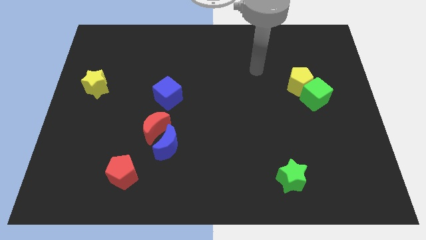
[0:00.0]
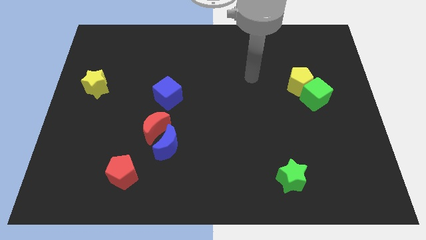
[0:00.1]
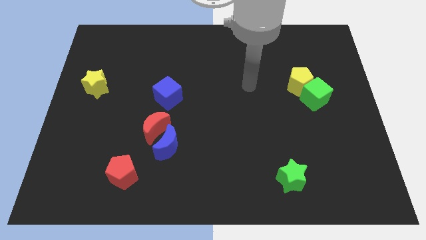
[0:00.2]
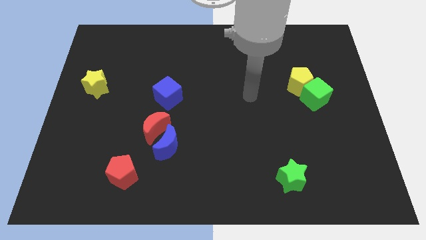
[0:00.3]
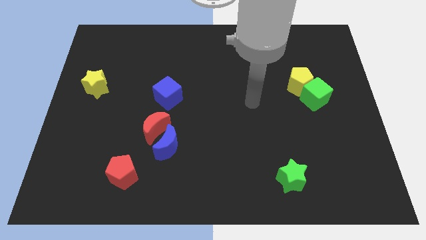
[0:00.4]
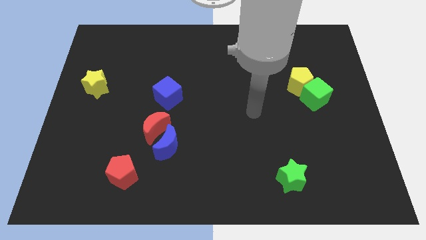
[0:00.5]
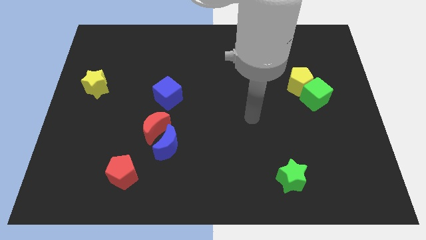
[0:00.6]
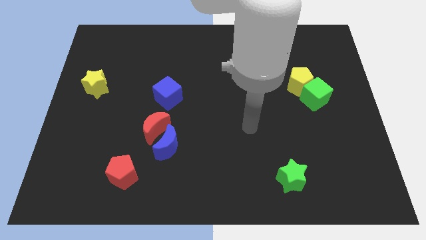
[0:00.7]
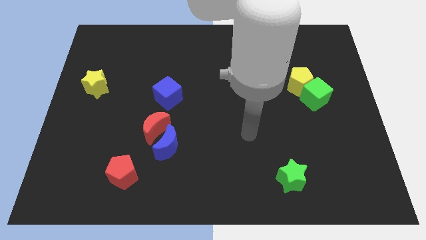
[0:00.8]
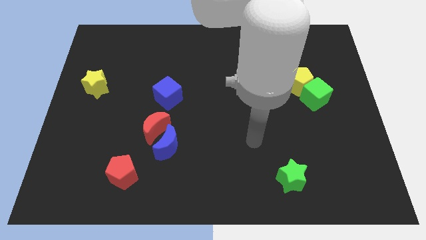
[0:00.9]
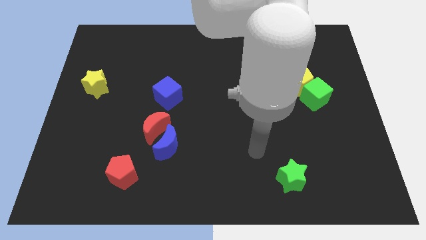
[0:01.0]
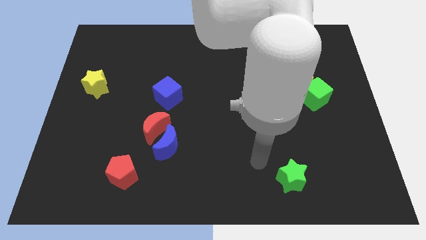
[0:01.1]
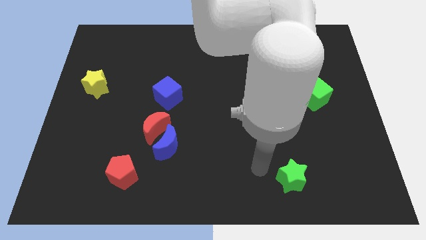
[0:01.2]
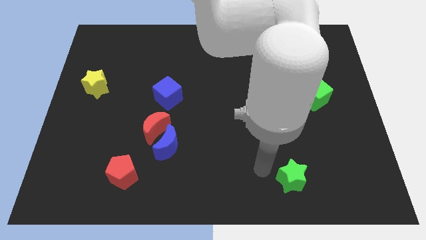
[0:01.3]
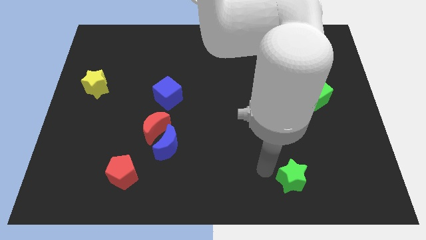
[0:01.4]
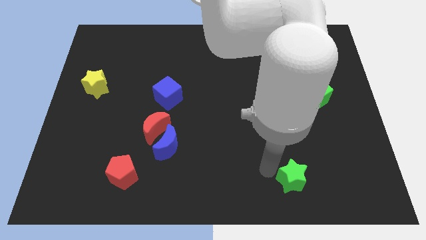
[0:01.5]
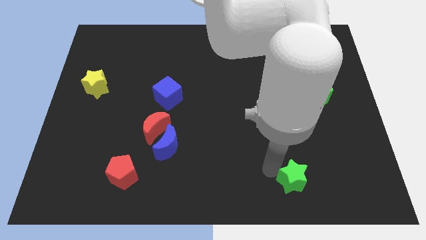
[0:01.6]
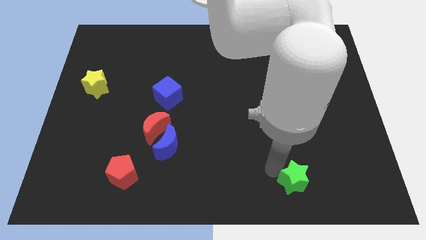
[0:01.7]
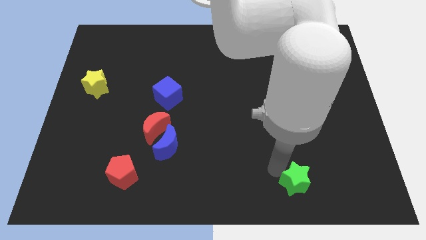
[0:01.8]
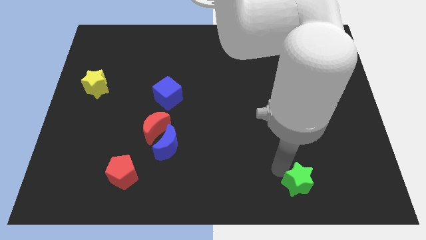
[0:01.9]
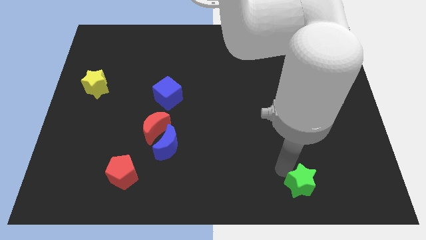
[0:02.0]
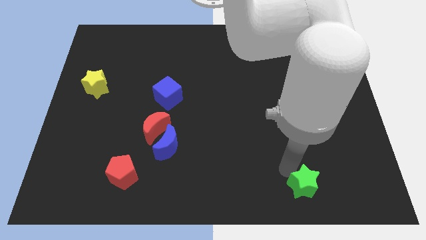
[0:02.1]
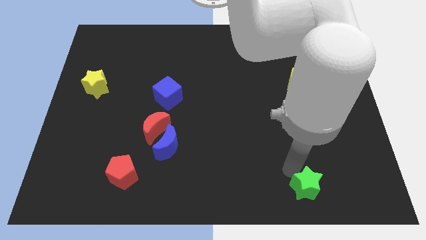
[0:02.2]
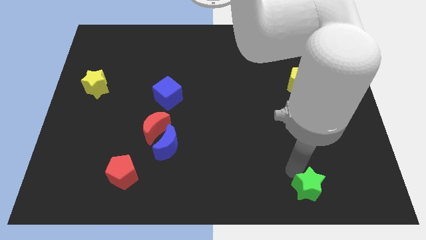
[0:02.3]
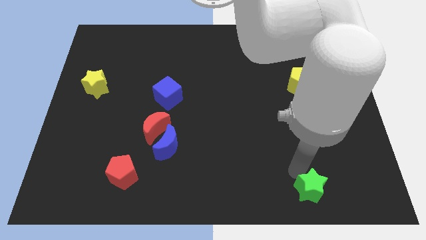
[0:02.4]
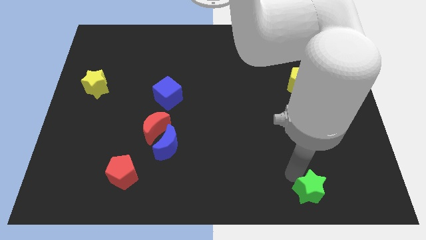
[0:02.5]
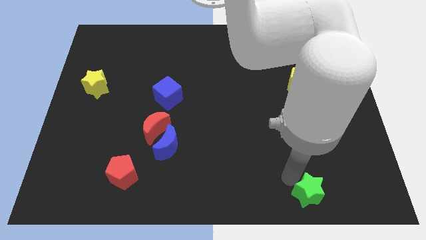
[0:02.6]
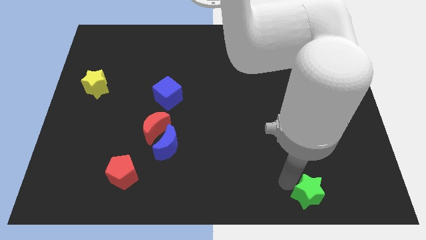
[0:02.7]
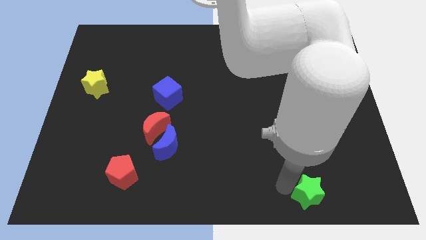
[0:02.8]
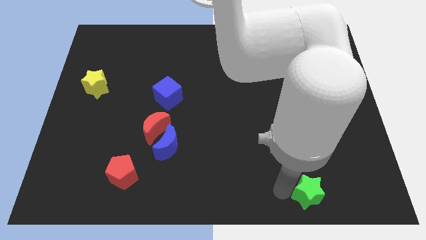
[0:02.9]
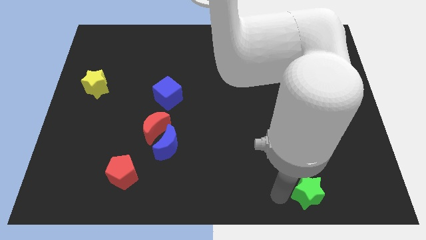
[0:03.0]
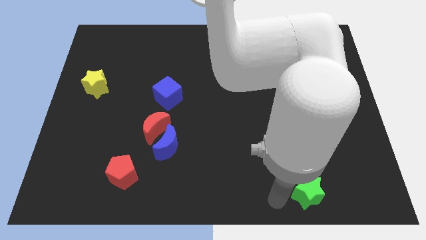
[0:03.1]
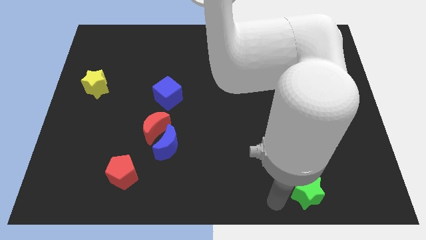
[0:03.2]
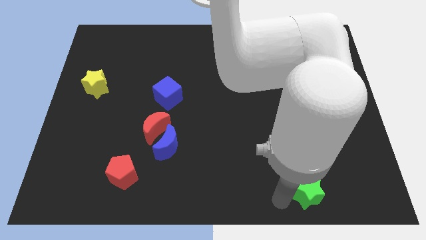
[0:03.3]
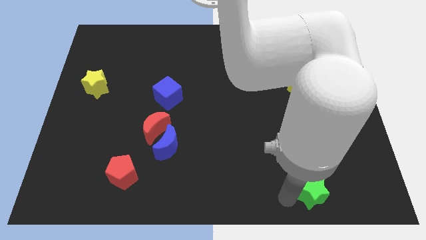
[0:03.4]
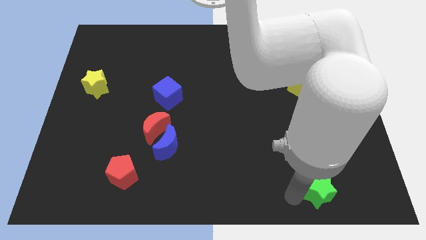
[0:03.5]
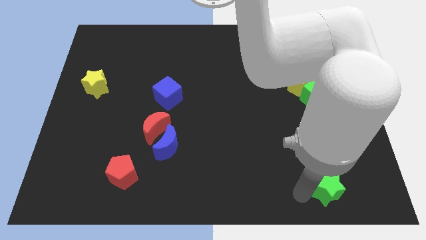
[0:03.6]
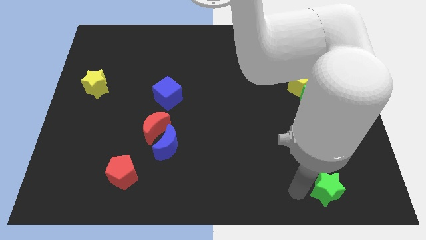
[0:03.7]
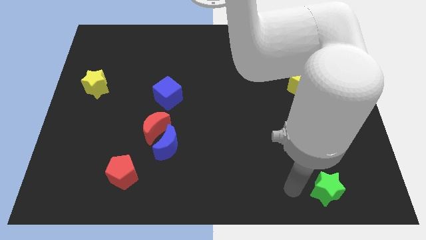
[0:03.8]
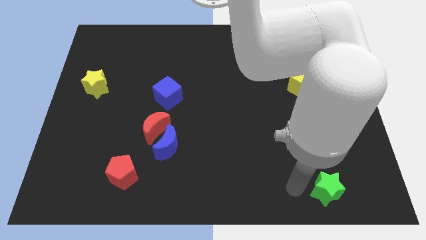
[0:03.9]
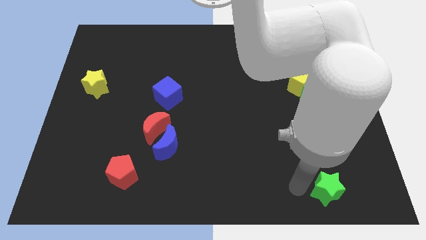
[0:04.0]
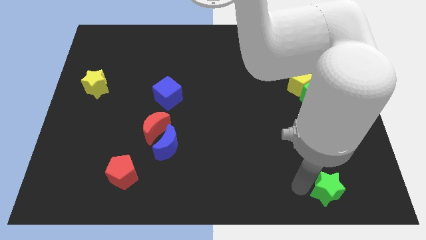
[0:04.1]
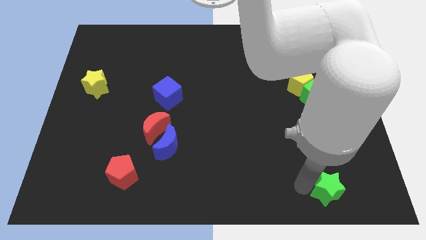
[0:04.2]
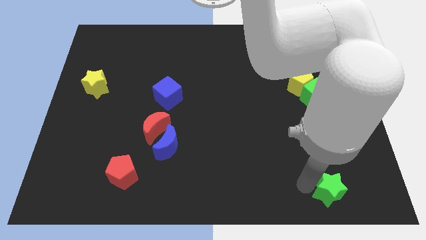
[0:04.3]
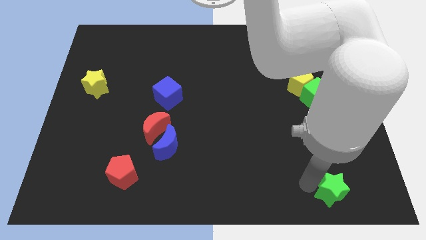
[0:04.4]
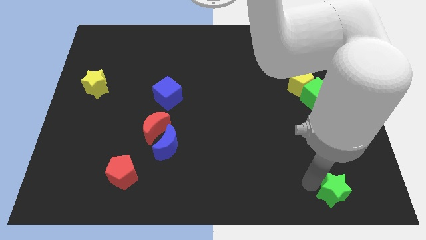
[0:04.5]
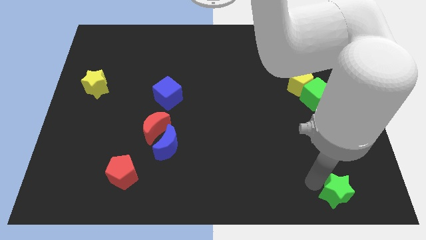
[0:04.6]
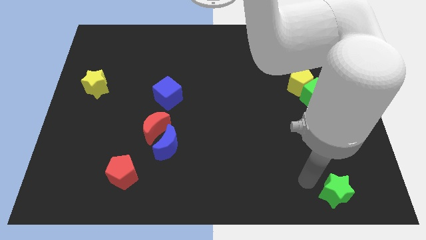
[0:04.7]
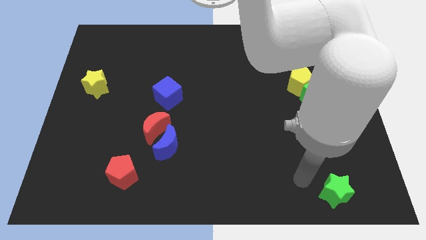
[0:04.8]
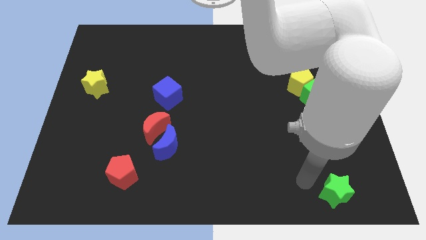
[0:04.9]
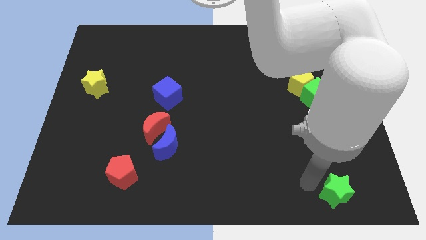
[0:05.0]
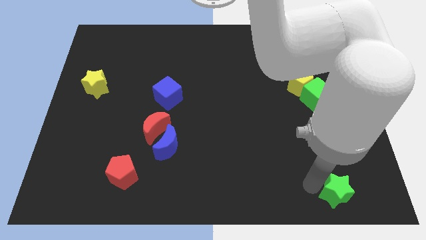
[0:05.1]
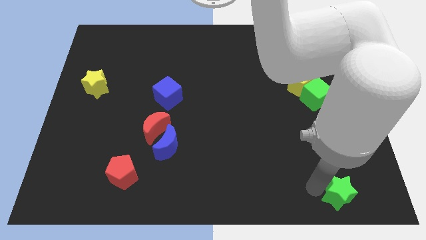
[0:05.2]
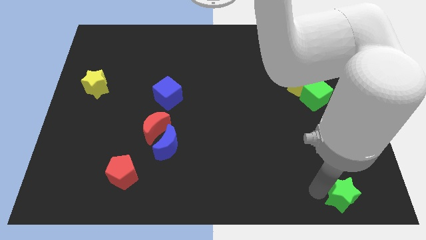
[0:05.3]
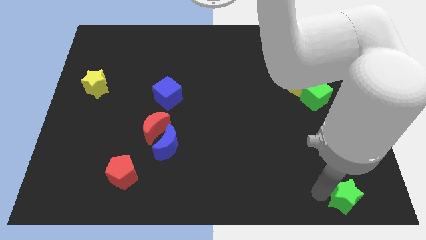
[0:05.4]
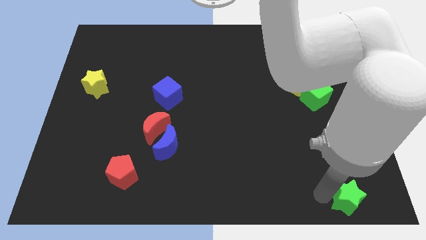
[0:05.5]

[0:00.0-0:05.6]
move the green star to the bottom right

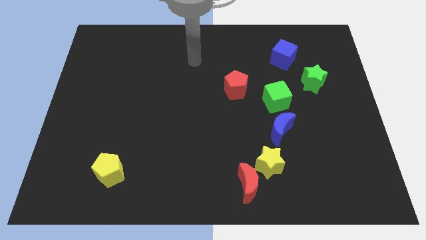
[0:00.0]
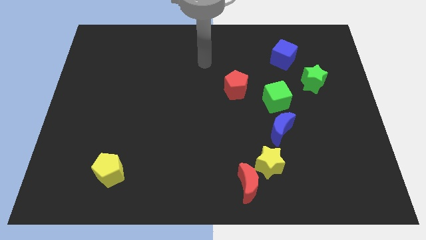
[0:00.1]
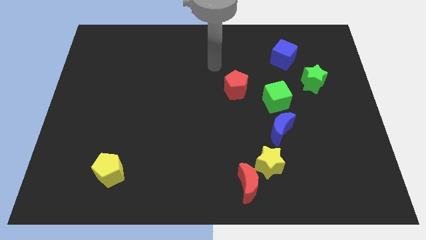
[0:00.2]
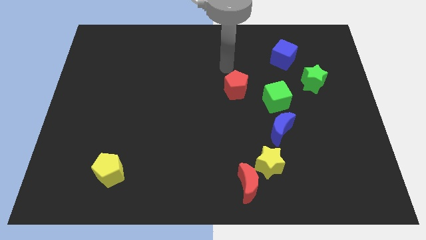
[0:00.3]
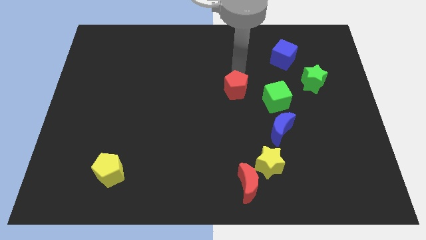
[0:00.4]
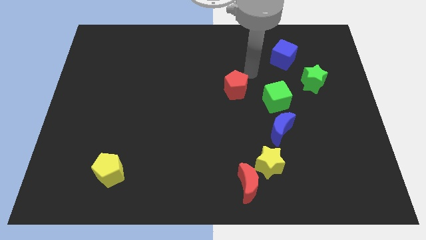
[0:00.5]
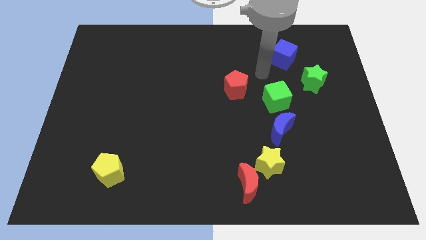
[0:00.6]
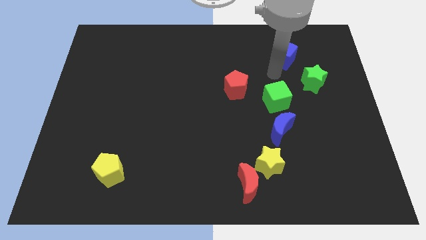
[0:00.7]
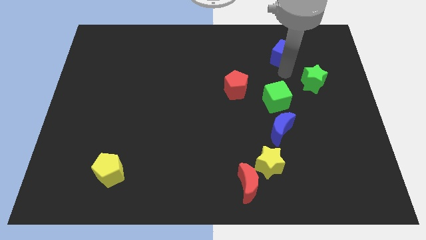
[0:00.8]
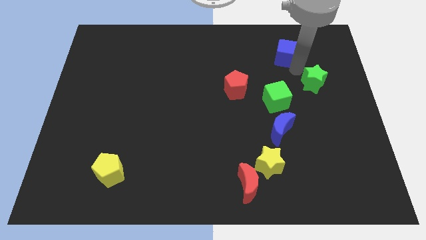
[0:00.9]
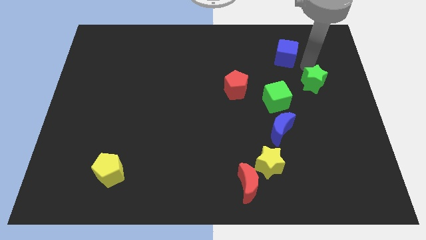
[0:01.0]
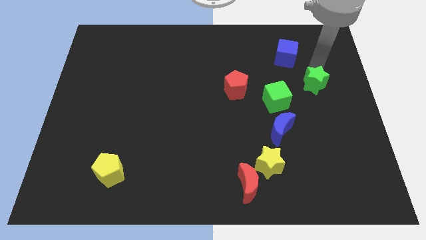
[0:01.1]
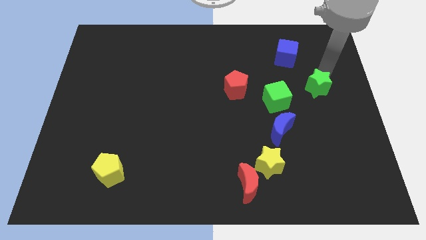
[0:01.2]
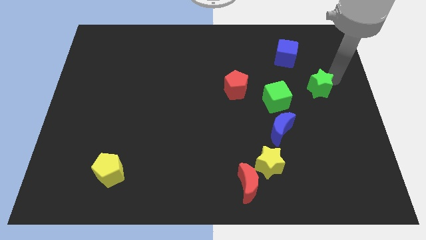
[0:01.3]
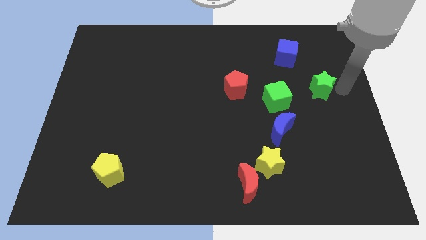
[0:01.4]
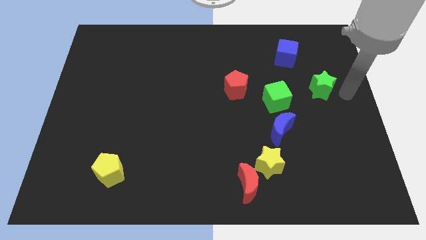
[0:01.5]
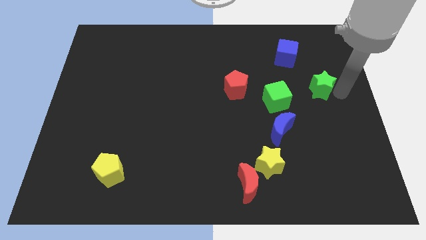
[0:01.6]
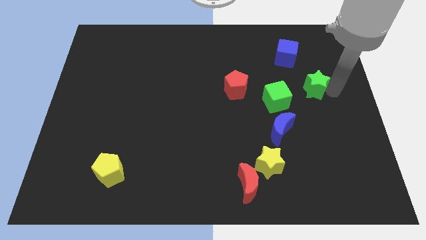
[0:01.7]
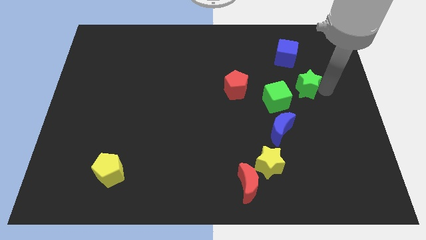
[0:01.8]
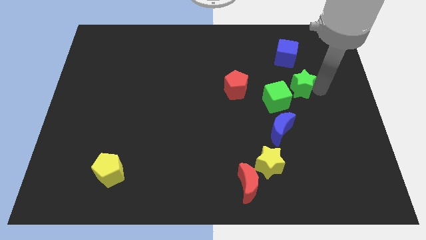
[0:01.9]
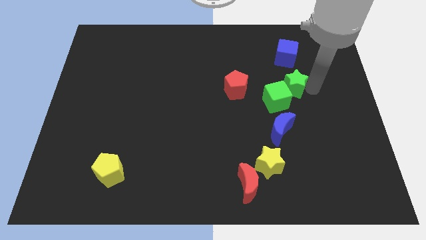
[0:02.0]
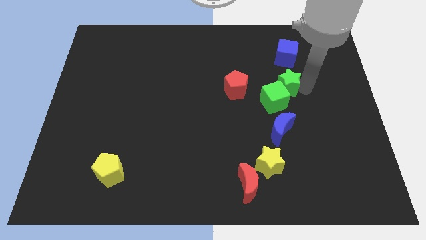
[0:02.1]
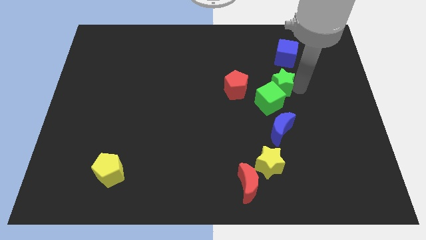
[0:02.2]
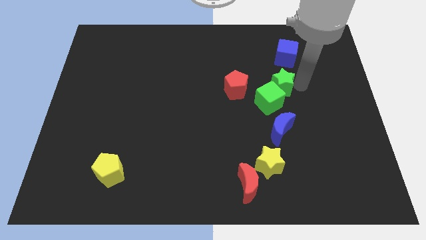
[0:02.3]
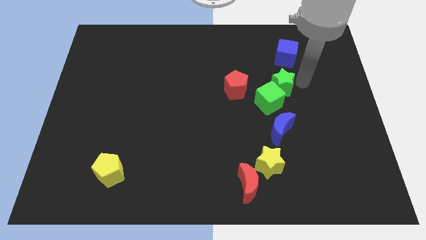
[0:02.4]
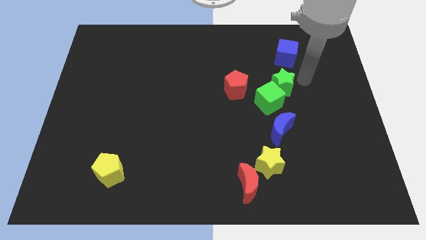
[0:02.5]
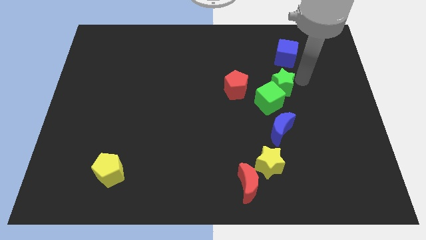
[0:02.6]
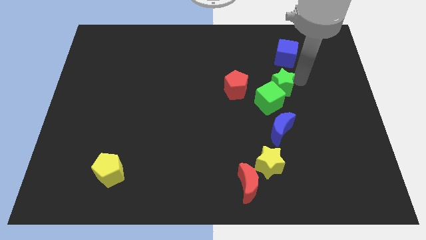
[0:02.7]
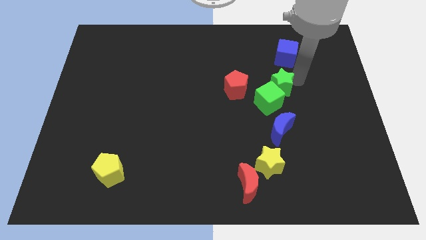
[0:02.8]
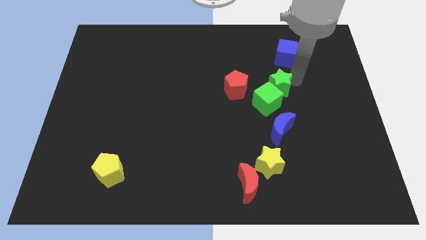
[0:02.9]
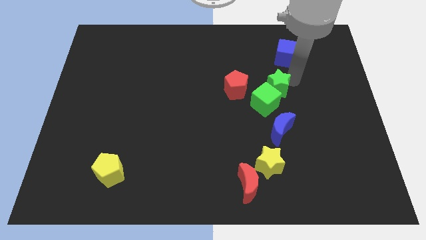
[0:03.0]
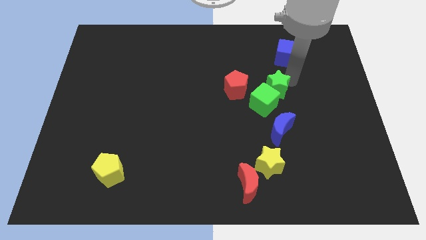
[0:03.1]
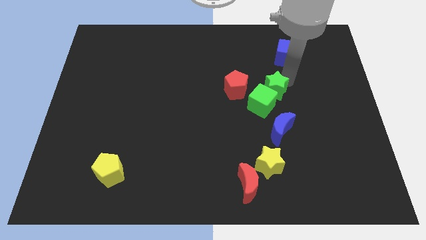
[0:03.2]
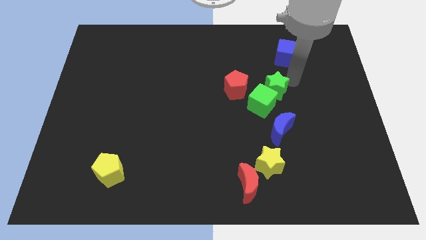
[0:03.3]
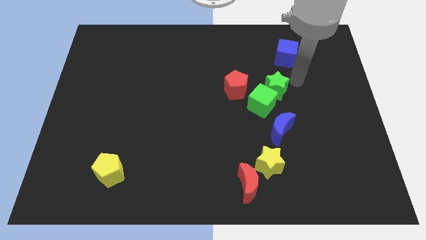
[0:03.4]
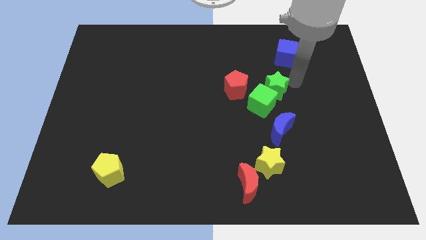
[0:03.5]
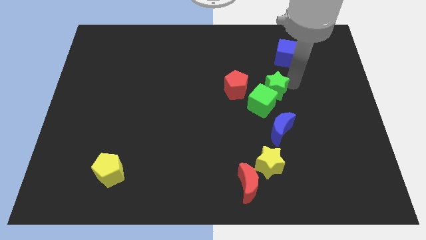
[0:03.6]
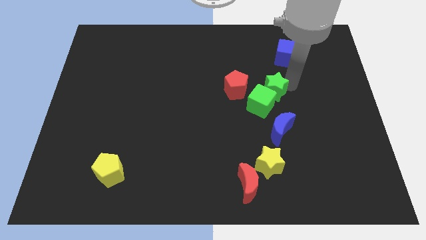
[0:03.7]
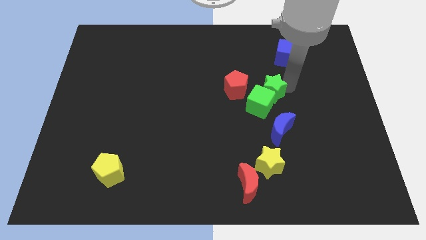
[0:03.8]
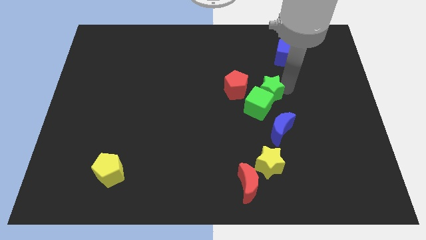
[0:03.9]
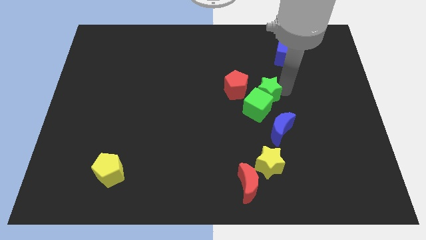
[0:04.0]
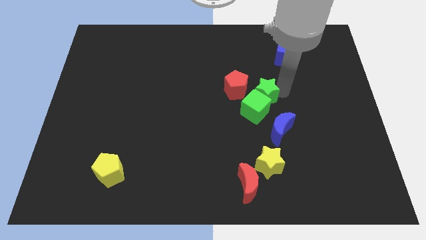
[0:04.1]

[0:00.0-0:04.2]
move the green star to the center
